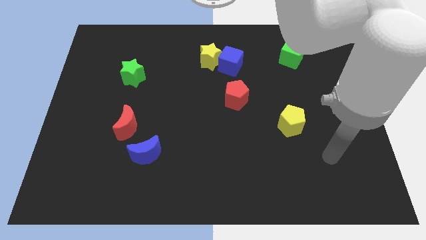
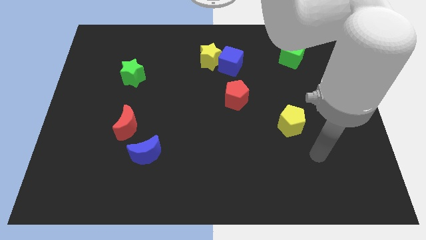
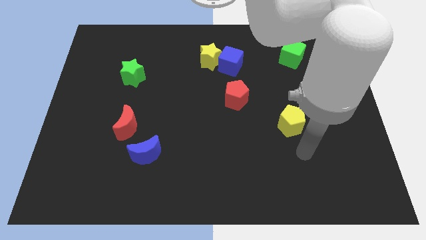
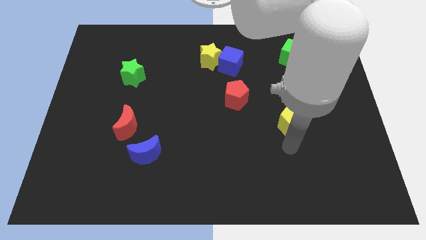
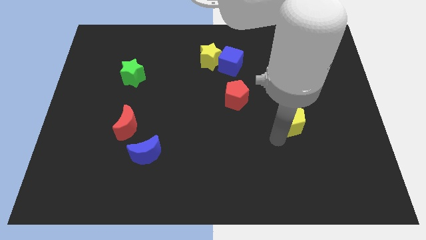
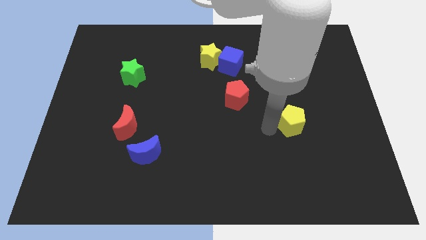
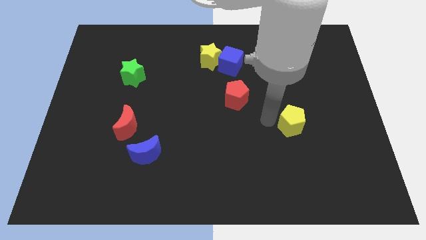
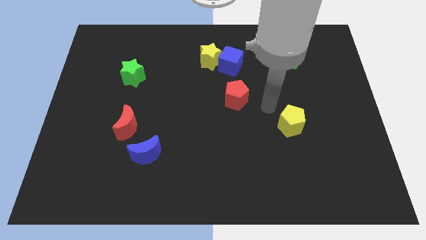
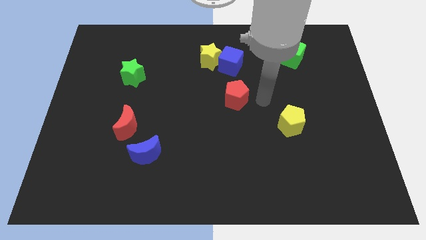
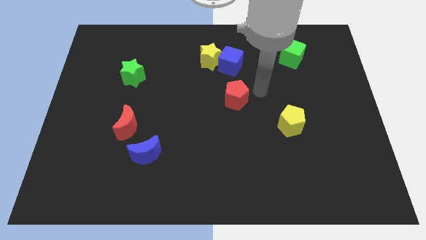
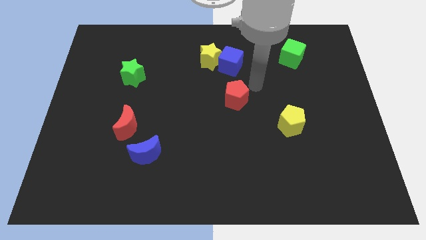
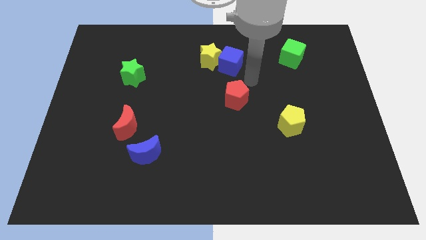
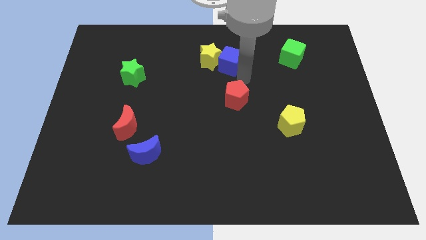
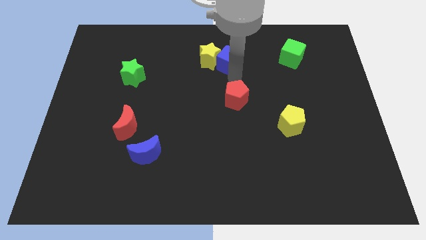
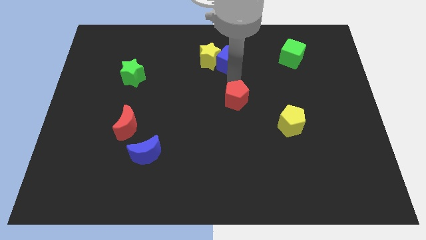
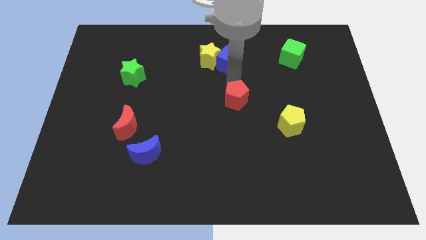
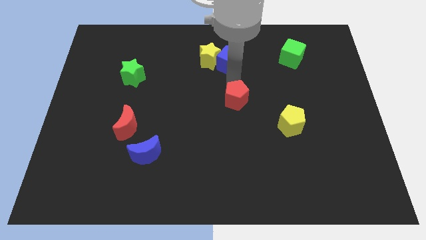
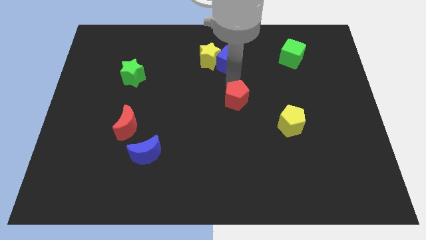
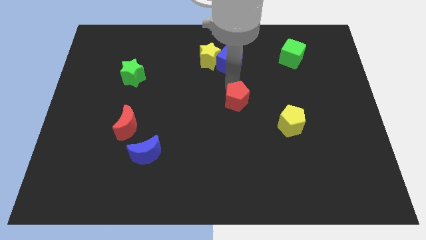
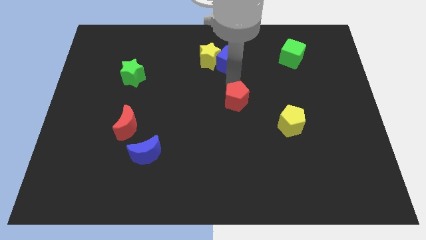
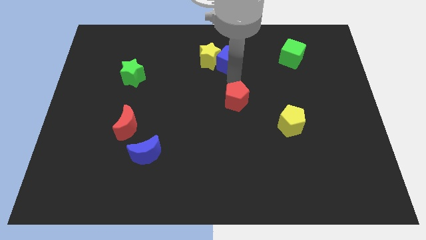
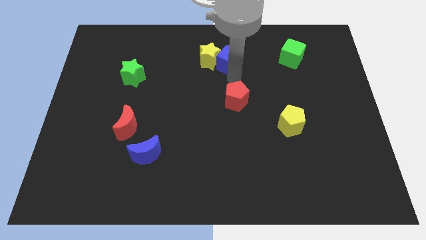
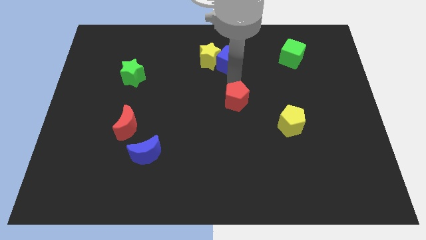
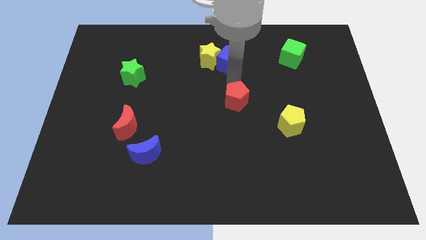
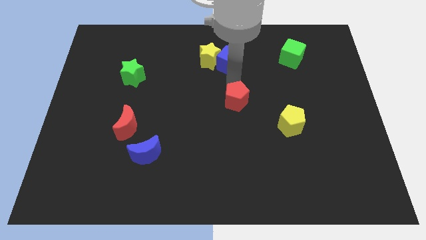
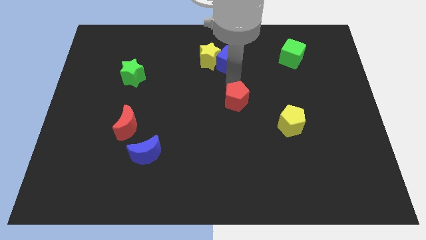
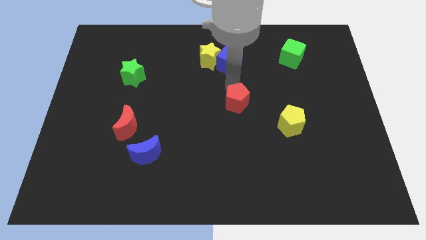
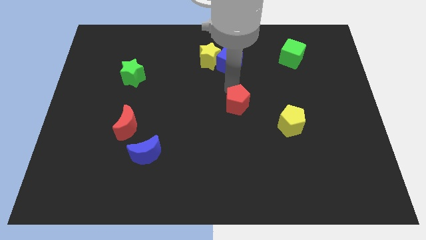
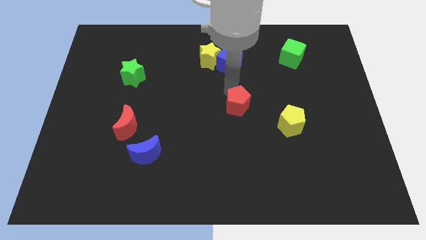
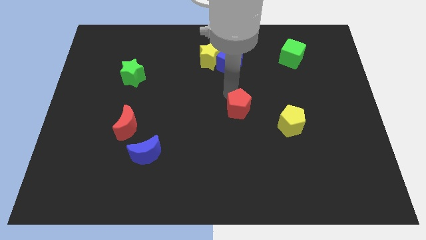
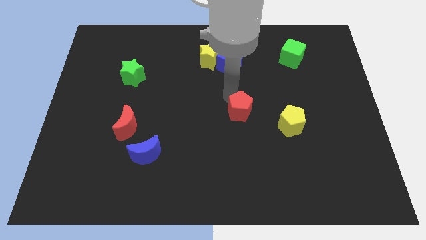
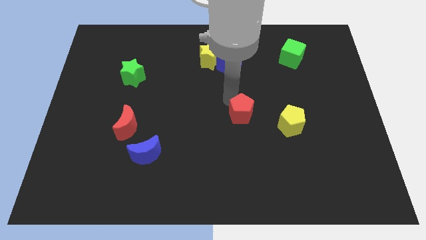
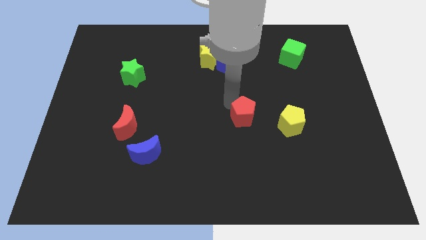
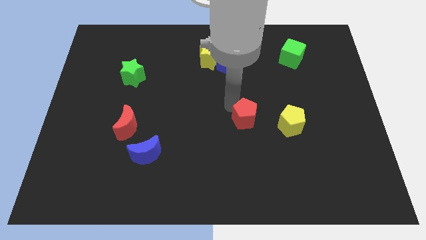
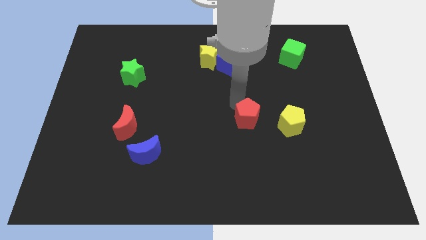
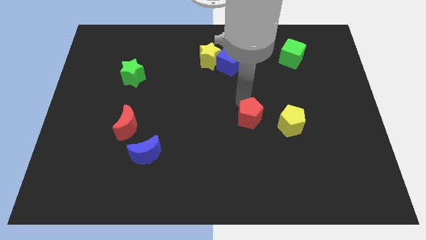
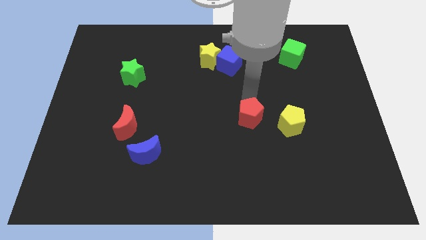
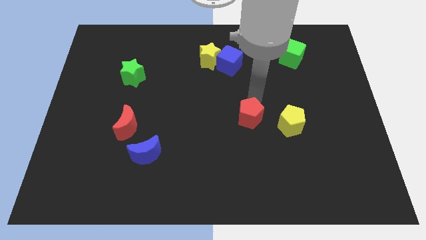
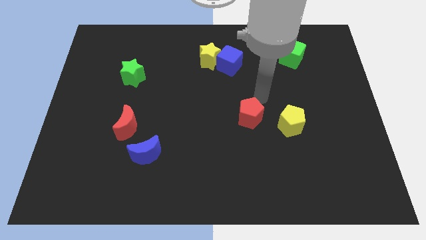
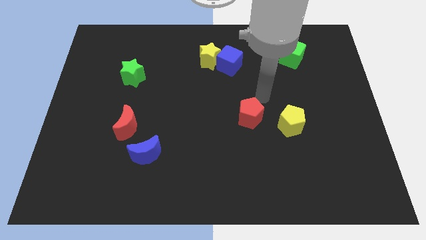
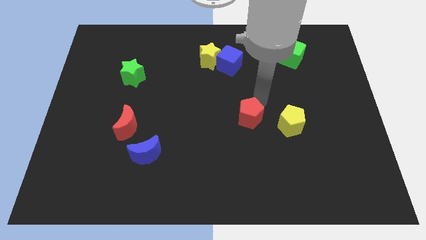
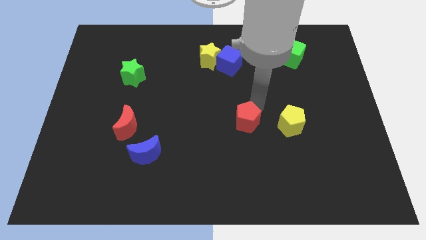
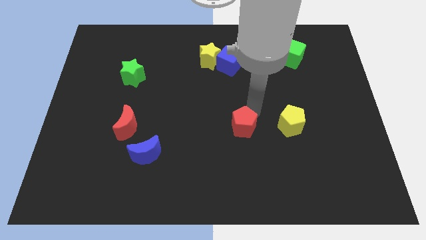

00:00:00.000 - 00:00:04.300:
slide the red pentagon a little bit downwards

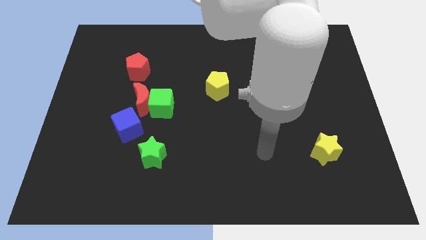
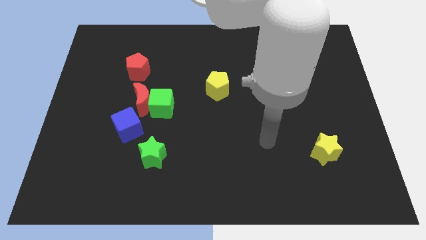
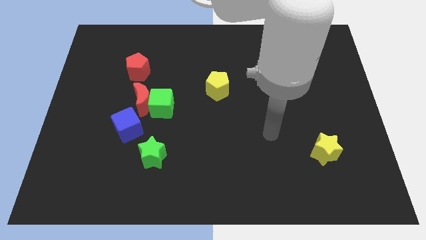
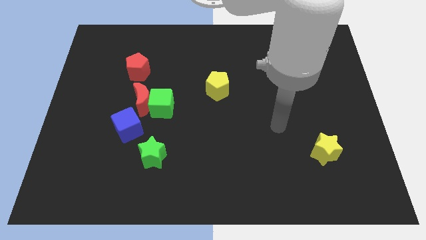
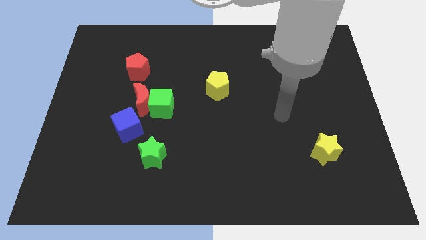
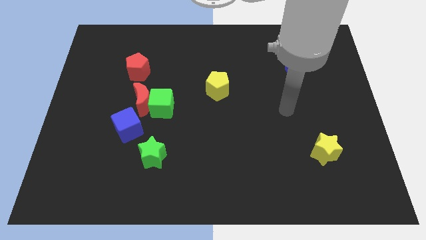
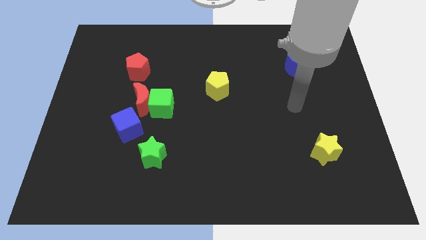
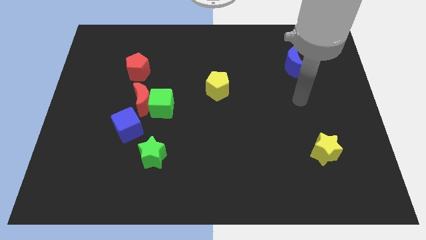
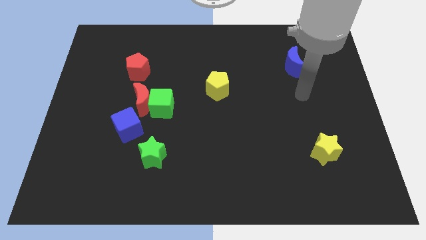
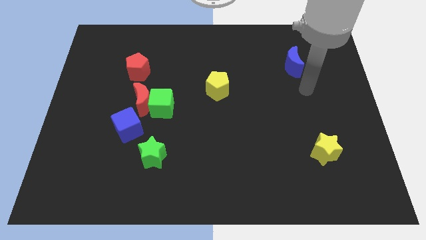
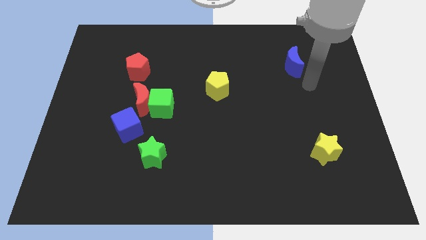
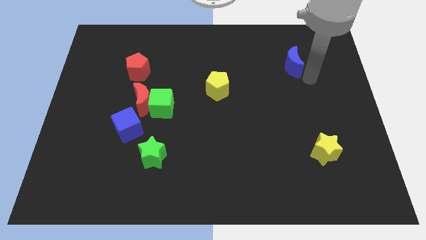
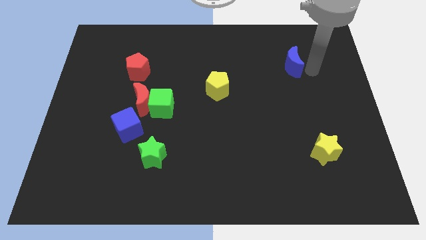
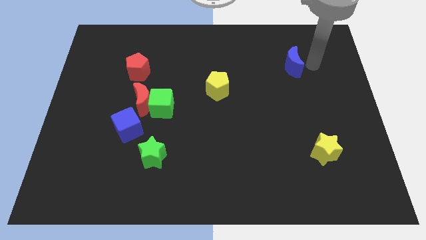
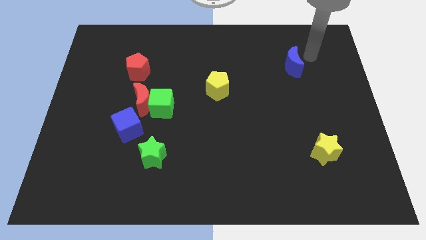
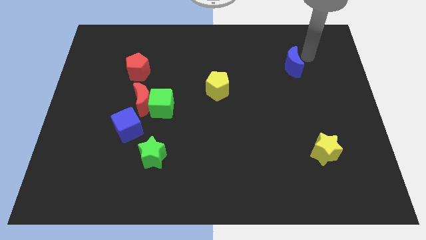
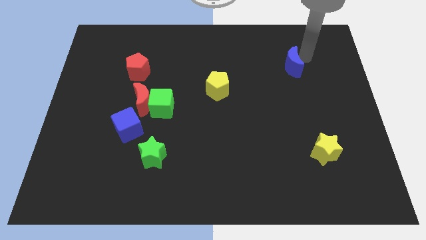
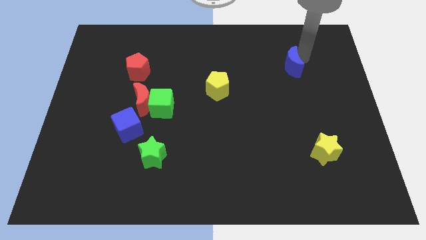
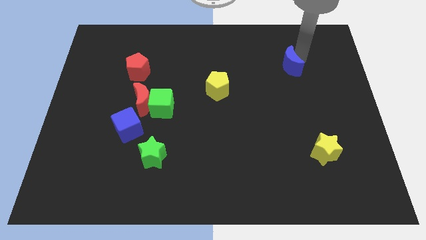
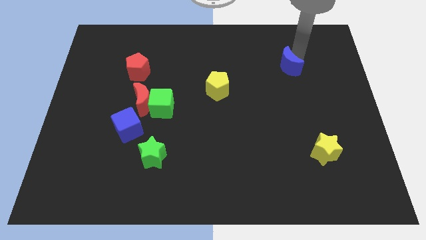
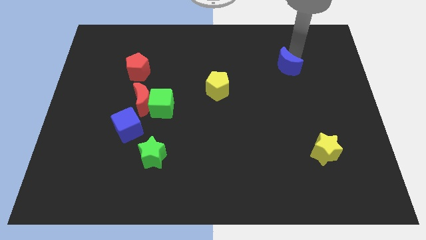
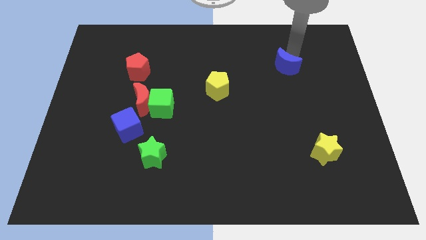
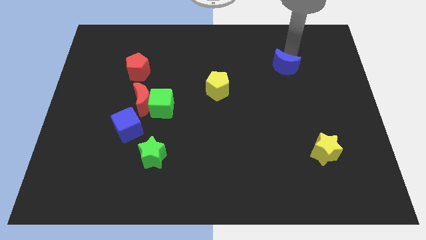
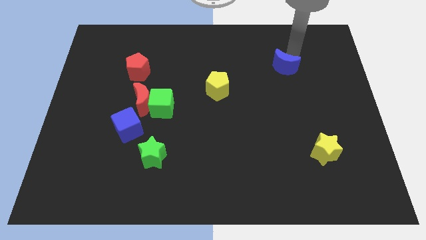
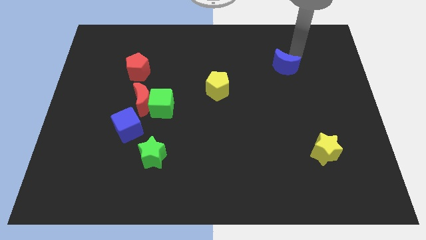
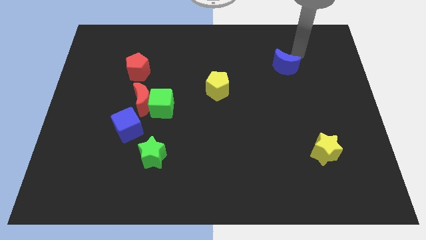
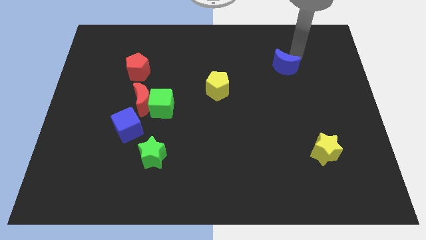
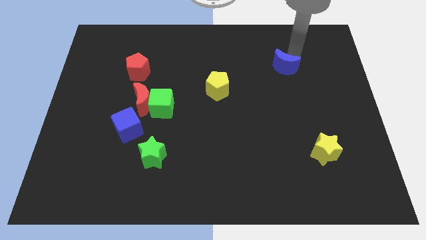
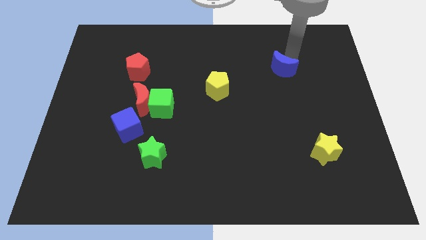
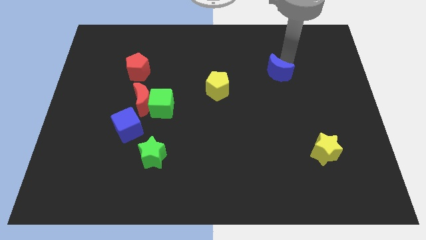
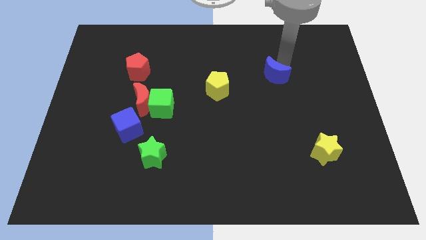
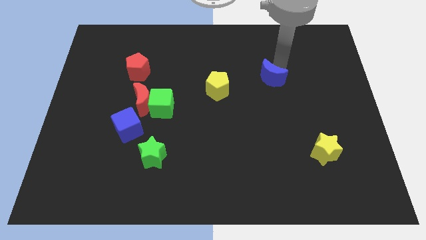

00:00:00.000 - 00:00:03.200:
push the blue moon downwards and to the left a little bit

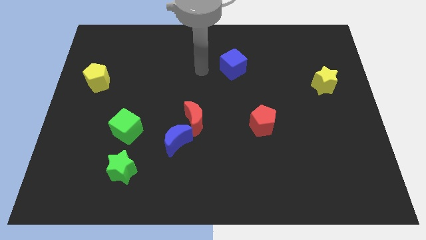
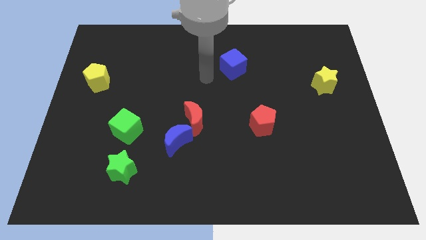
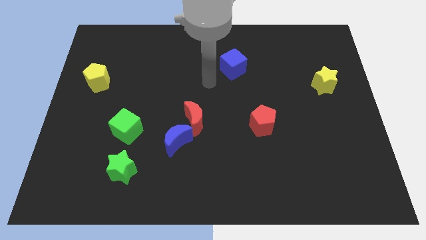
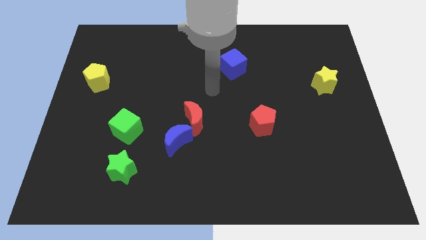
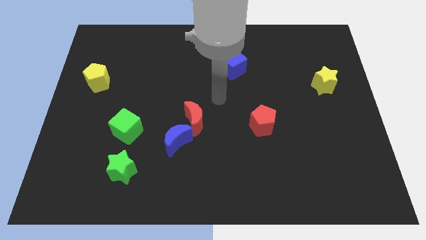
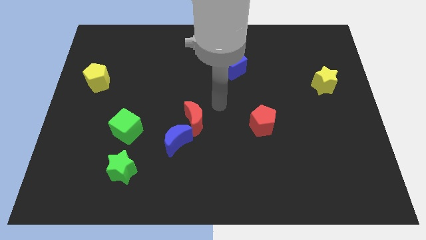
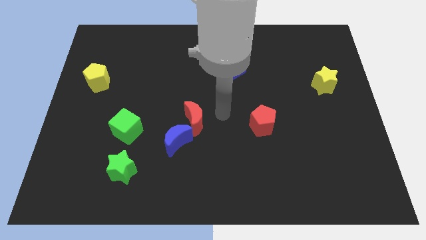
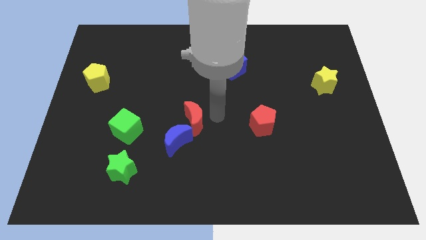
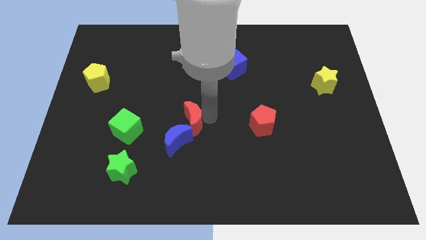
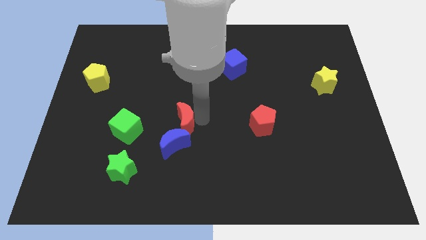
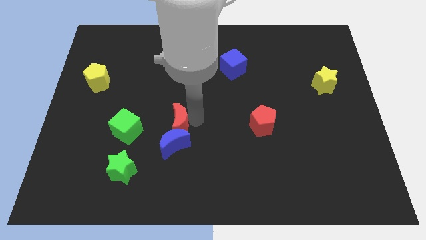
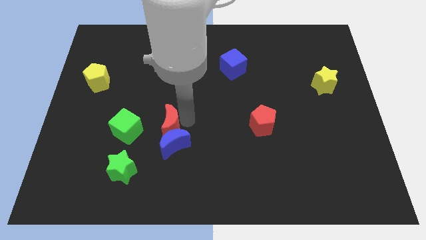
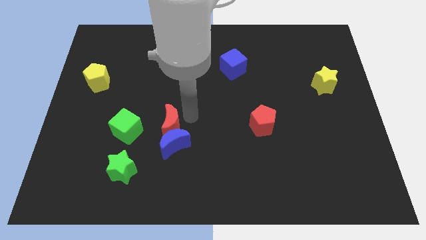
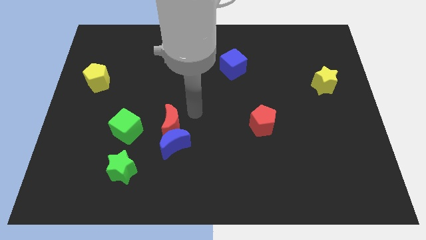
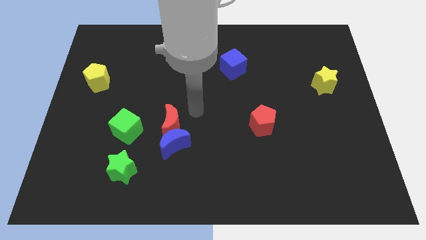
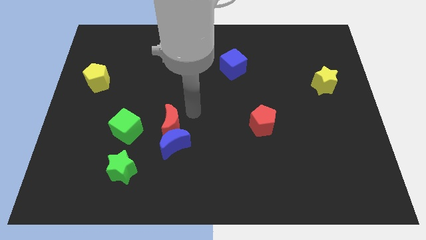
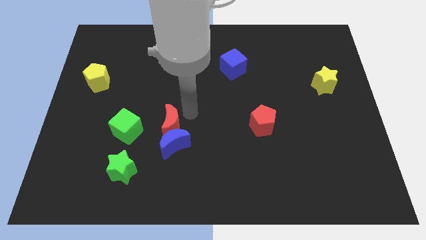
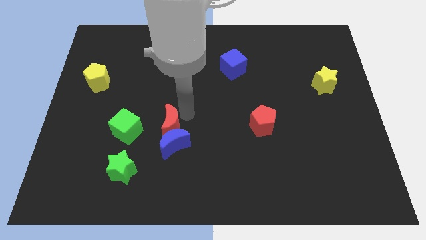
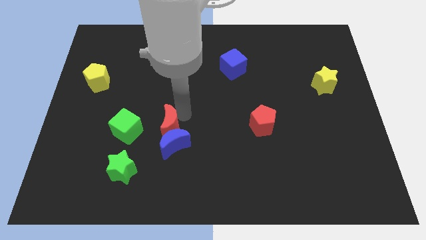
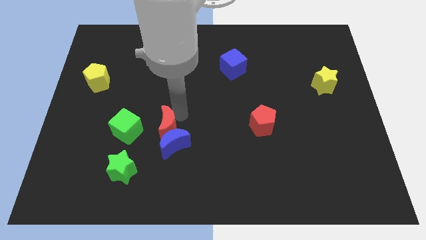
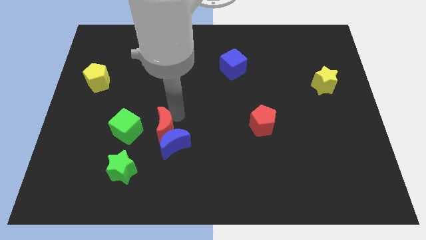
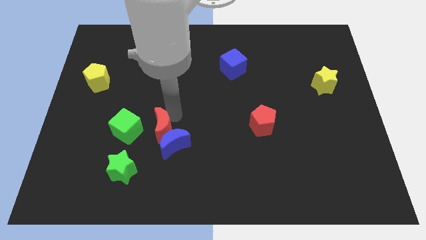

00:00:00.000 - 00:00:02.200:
push the red moon to the left somewhat
